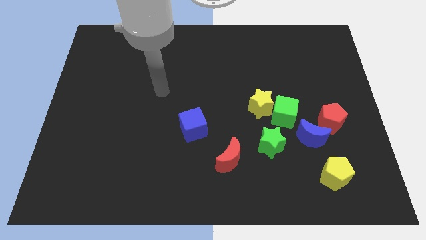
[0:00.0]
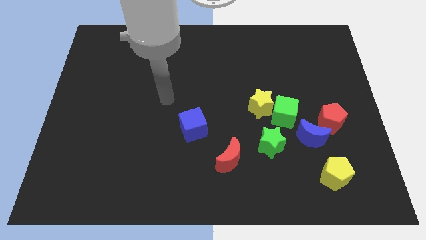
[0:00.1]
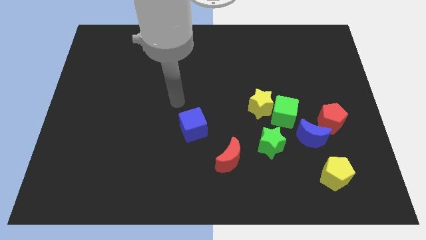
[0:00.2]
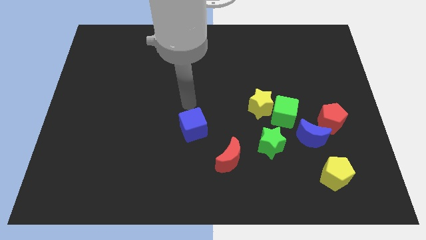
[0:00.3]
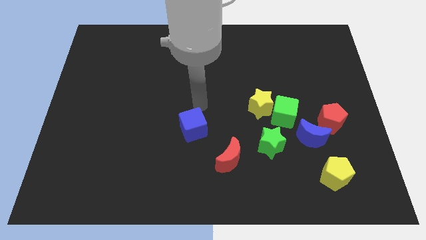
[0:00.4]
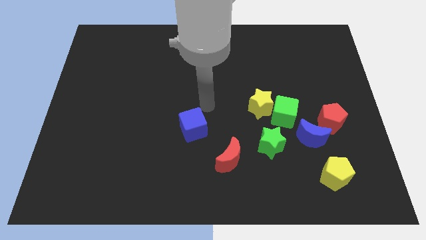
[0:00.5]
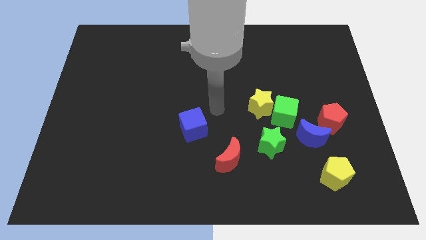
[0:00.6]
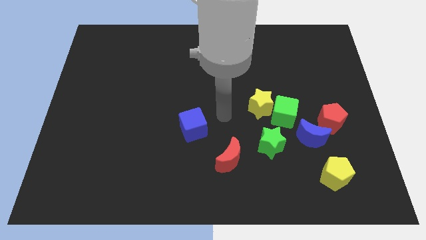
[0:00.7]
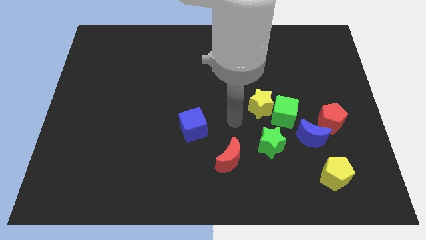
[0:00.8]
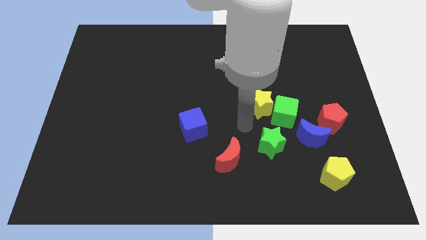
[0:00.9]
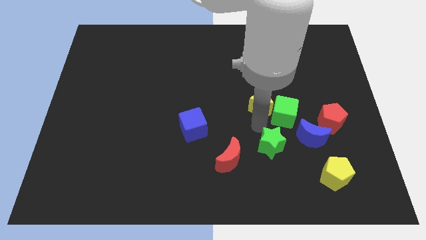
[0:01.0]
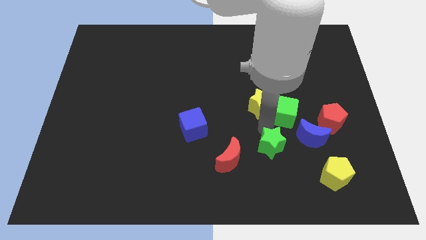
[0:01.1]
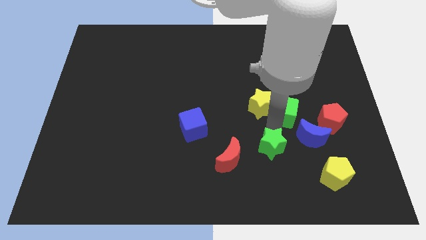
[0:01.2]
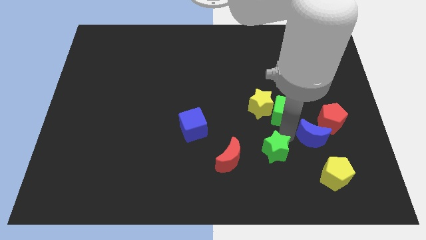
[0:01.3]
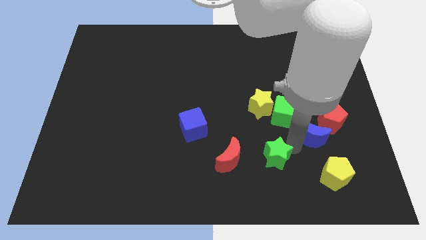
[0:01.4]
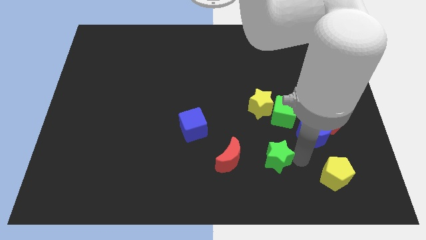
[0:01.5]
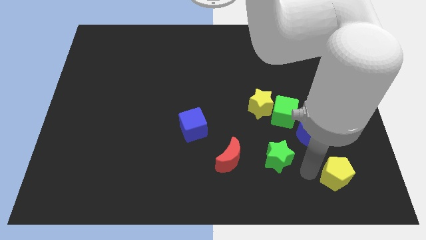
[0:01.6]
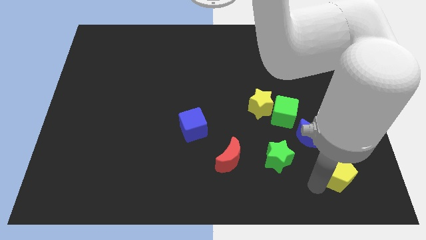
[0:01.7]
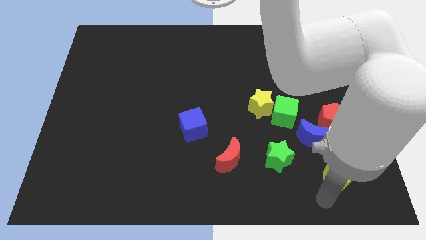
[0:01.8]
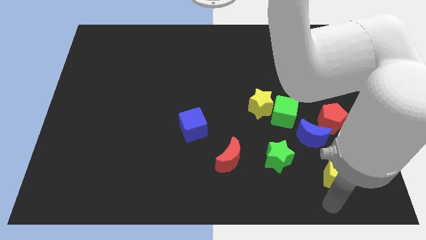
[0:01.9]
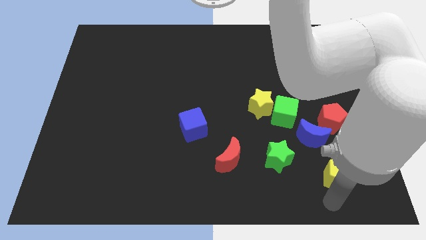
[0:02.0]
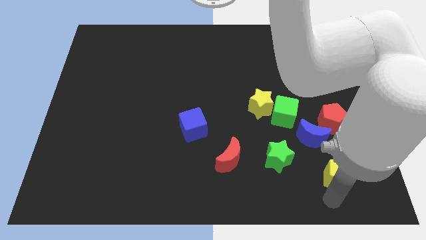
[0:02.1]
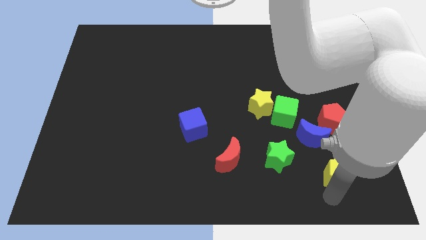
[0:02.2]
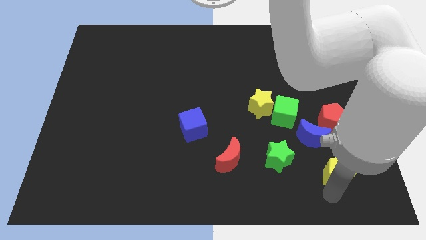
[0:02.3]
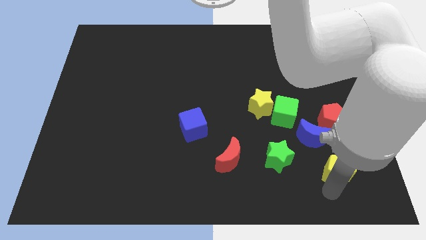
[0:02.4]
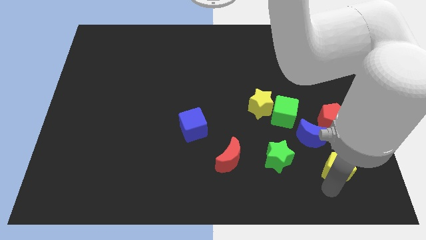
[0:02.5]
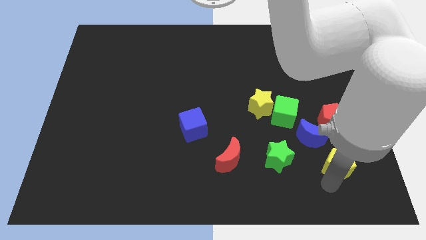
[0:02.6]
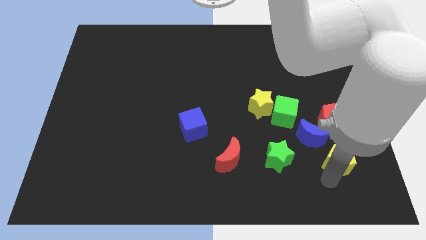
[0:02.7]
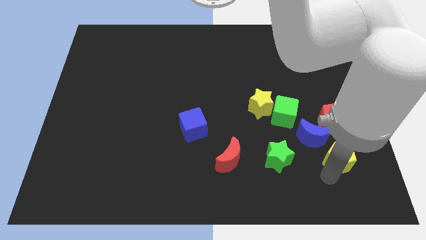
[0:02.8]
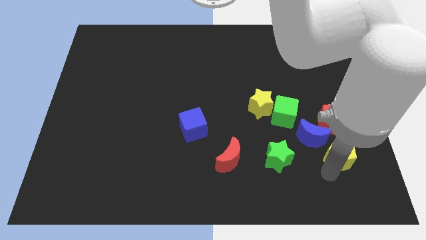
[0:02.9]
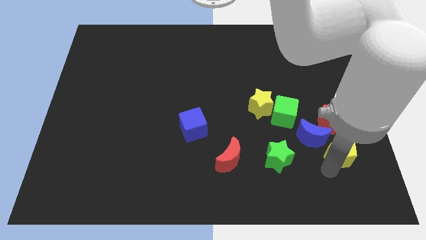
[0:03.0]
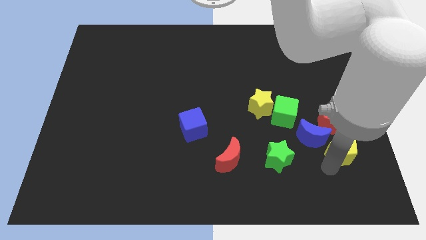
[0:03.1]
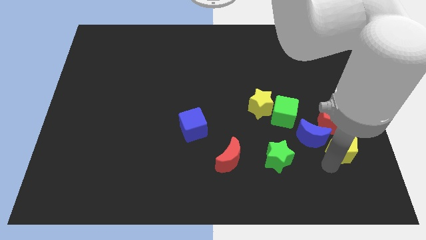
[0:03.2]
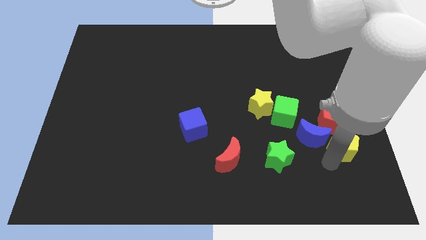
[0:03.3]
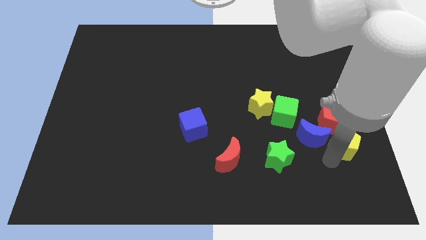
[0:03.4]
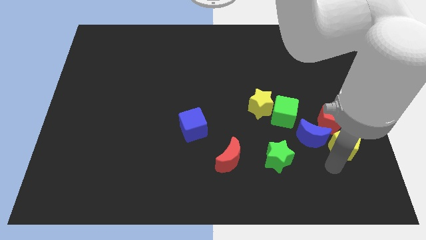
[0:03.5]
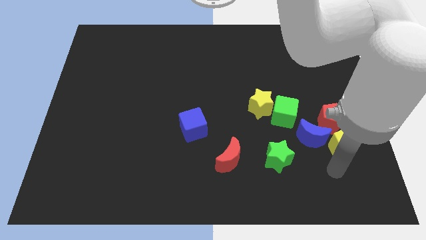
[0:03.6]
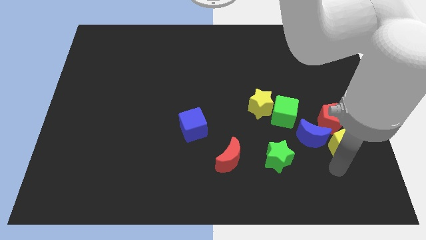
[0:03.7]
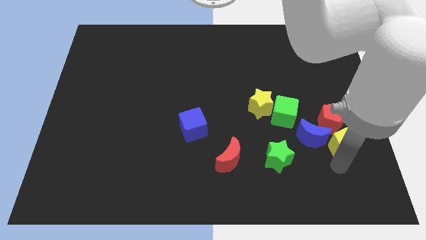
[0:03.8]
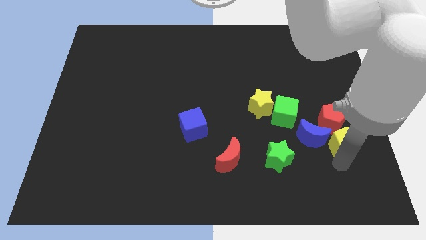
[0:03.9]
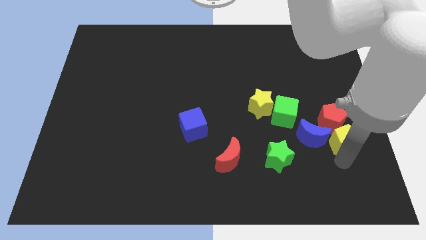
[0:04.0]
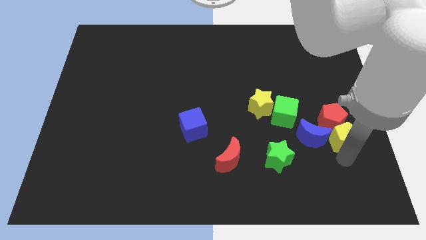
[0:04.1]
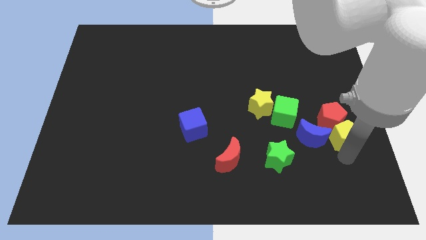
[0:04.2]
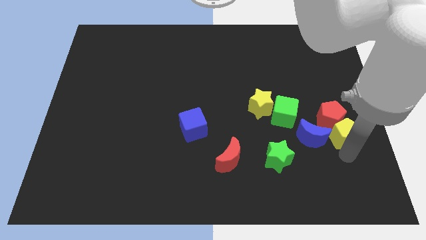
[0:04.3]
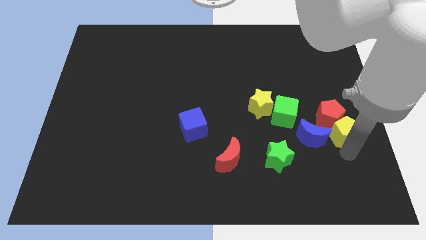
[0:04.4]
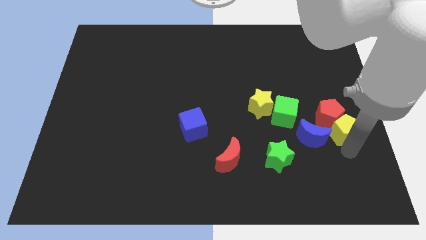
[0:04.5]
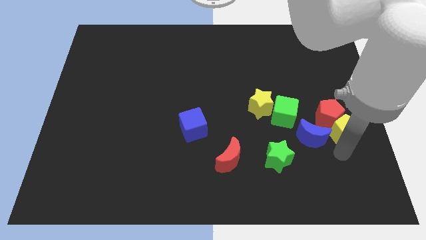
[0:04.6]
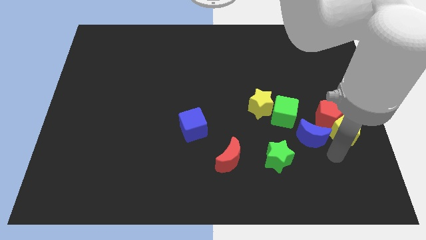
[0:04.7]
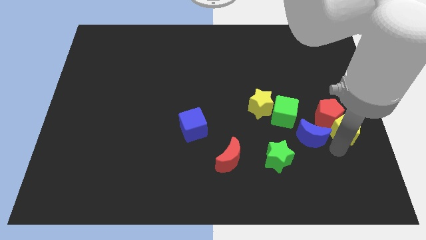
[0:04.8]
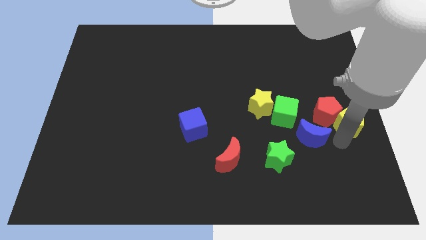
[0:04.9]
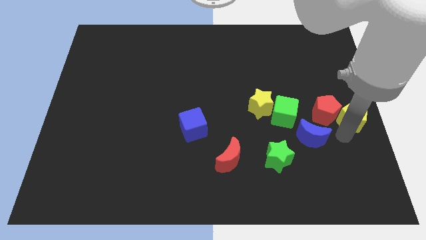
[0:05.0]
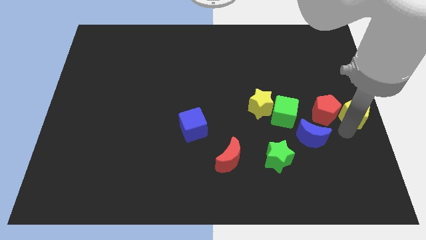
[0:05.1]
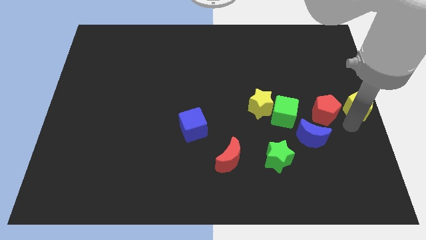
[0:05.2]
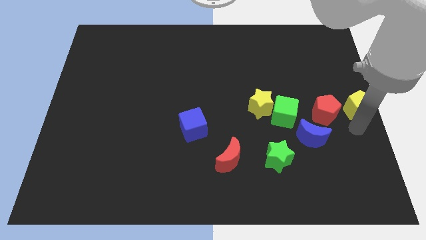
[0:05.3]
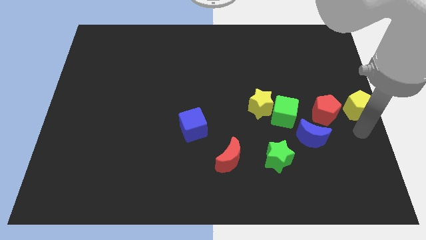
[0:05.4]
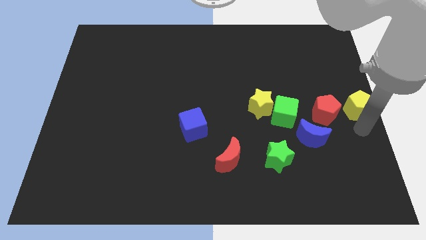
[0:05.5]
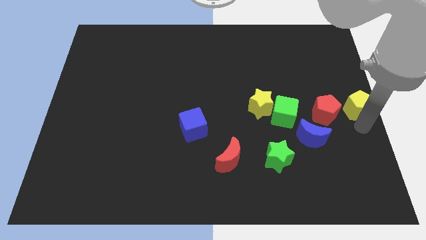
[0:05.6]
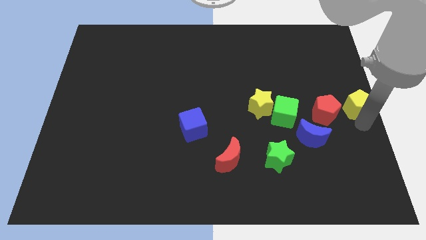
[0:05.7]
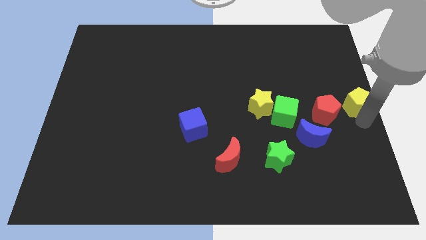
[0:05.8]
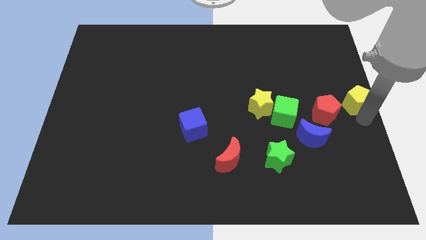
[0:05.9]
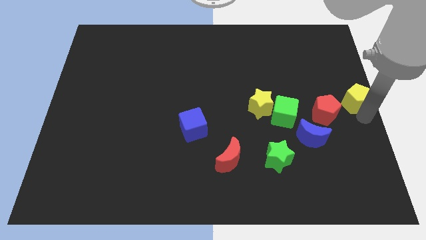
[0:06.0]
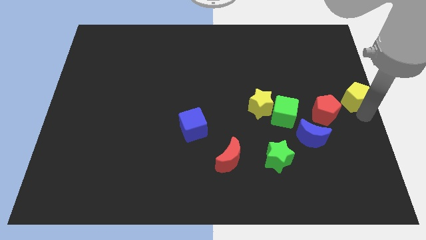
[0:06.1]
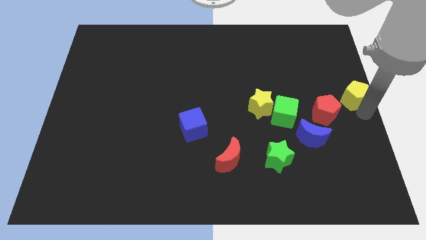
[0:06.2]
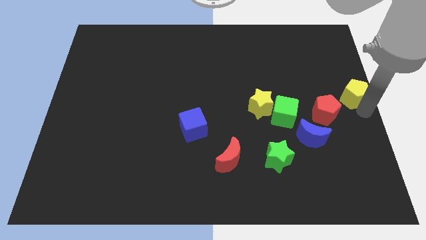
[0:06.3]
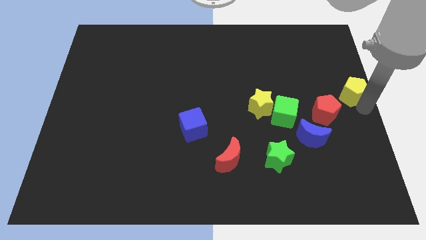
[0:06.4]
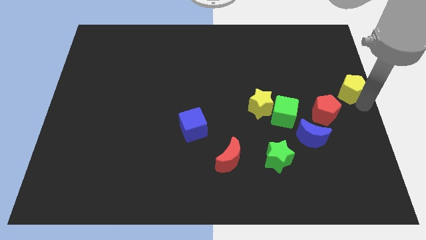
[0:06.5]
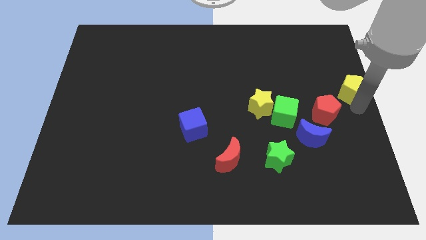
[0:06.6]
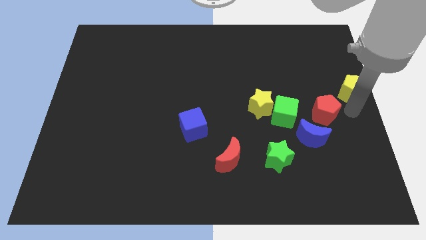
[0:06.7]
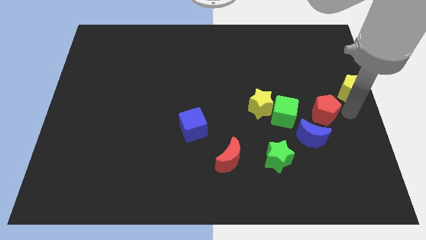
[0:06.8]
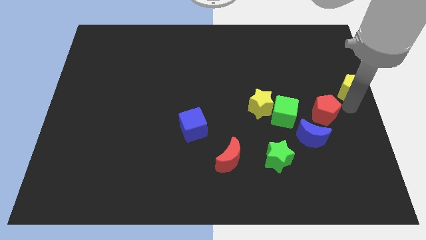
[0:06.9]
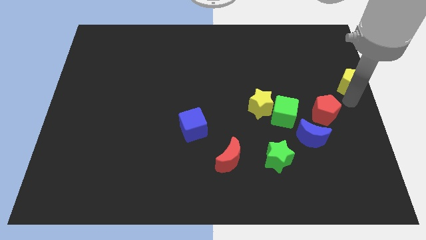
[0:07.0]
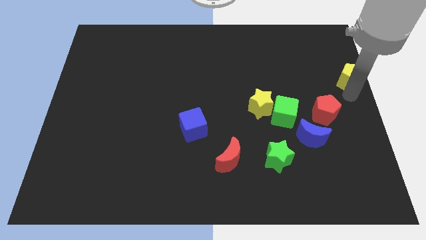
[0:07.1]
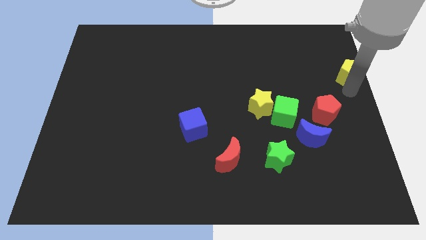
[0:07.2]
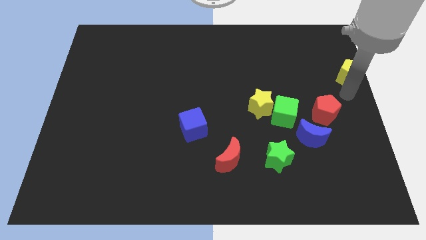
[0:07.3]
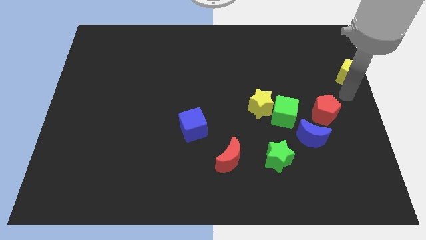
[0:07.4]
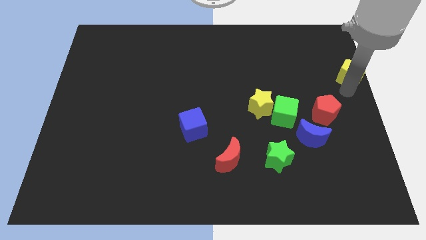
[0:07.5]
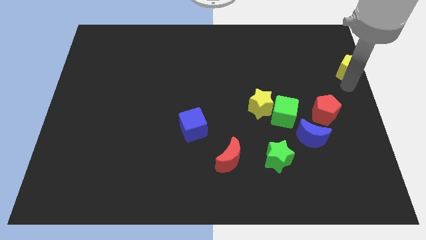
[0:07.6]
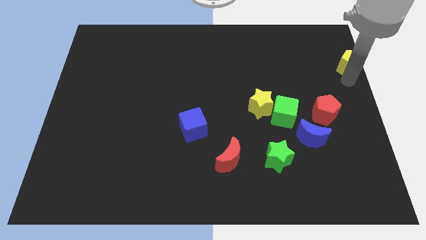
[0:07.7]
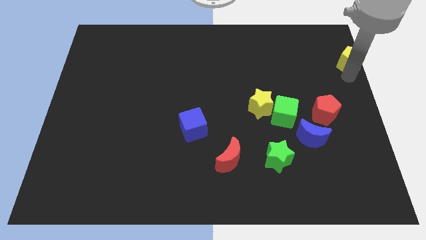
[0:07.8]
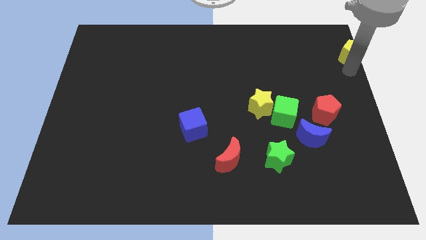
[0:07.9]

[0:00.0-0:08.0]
push the yellow pentagon to the top right
